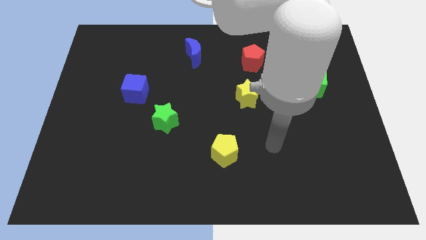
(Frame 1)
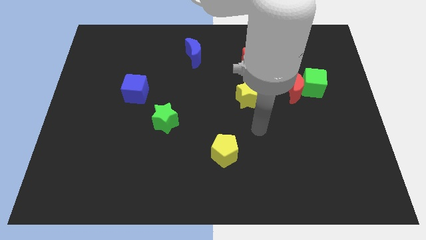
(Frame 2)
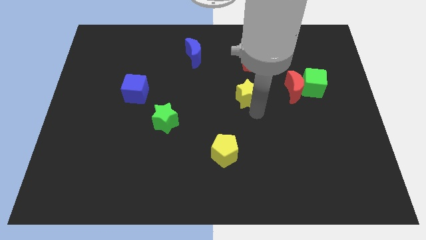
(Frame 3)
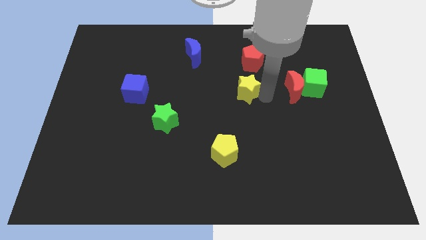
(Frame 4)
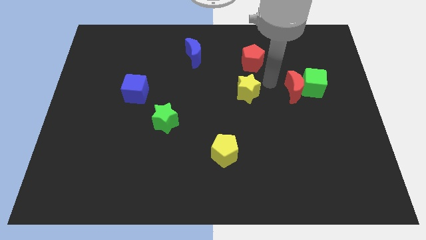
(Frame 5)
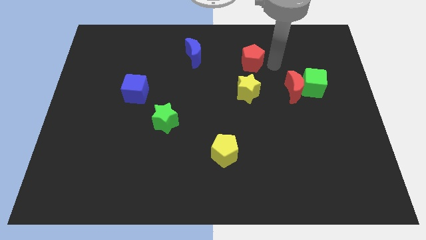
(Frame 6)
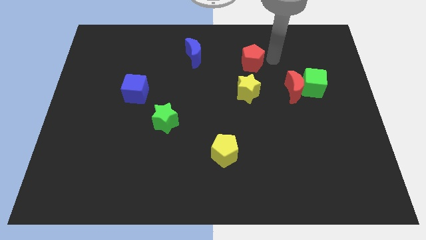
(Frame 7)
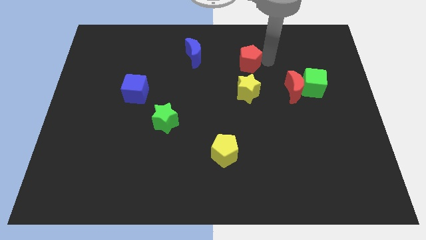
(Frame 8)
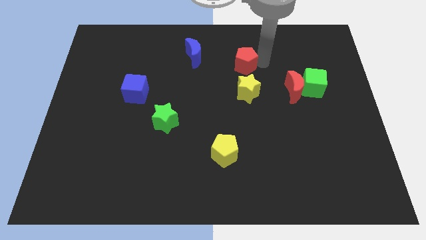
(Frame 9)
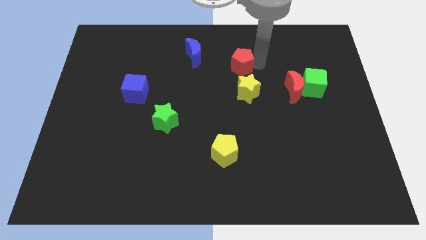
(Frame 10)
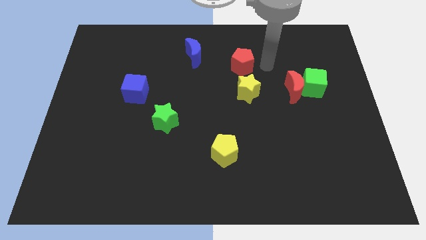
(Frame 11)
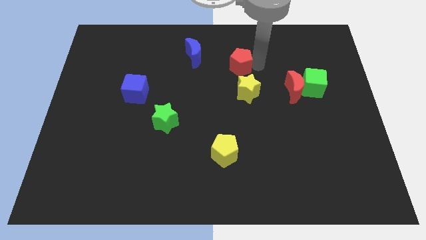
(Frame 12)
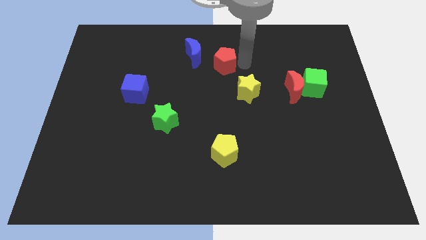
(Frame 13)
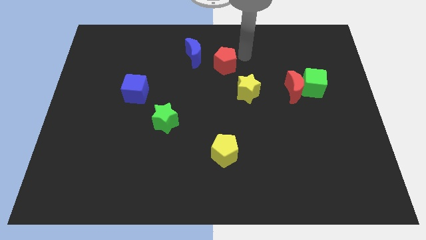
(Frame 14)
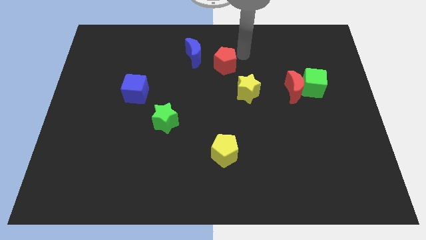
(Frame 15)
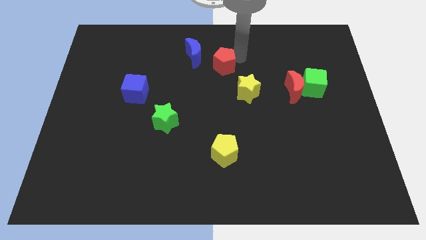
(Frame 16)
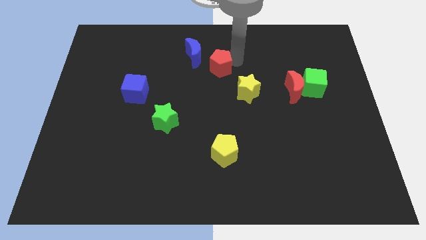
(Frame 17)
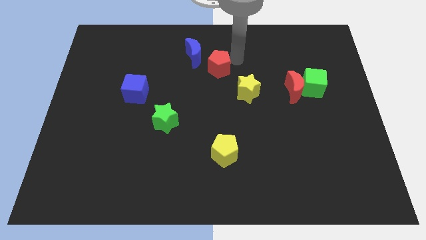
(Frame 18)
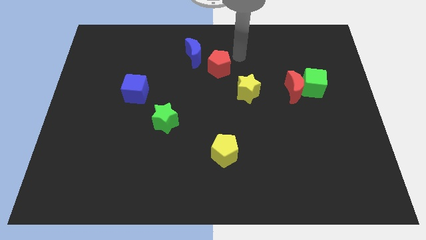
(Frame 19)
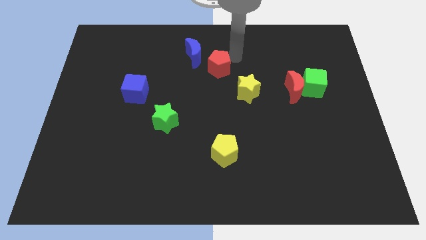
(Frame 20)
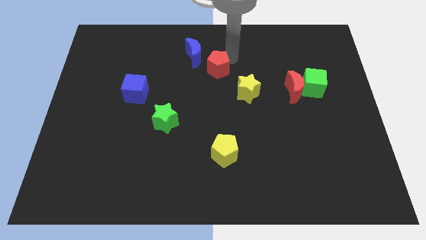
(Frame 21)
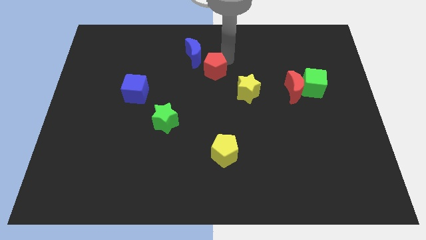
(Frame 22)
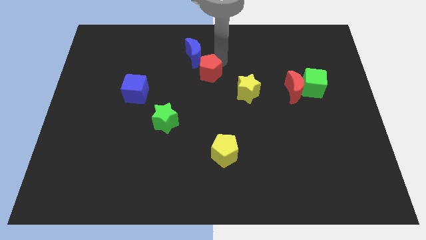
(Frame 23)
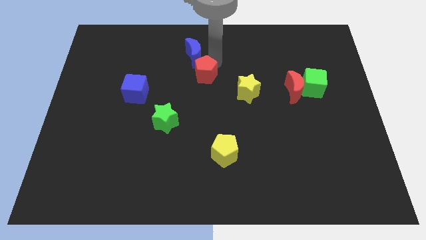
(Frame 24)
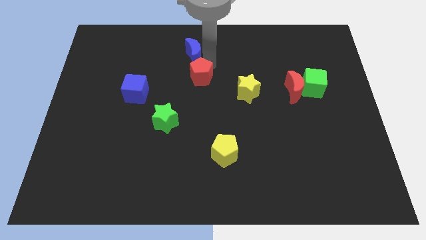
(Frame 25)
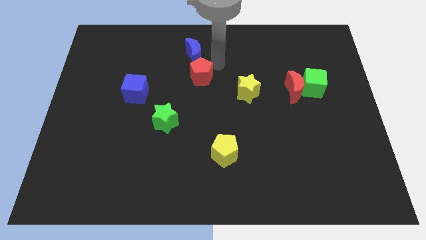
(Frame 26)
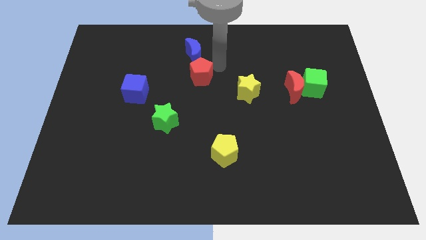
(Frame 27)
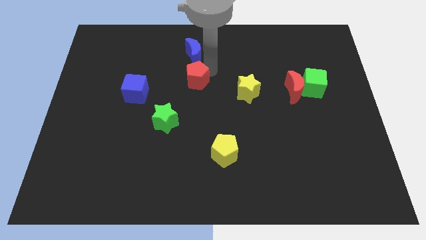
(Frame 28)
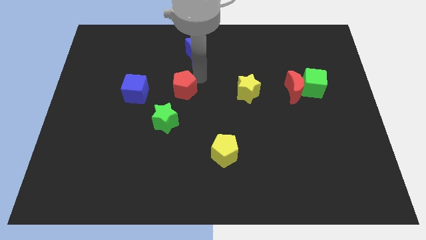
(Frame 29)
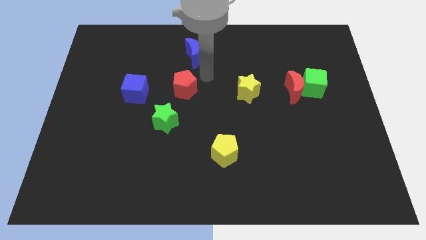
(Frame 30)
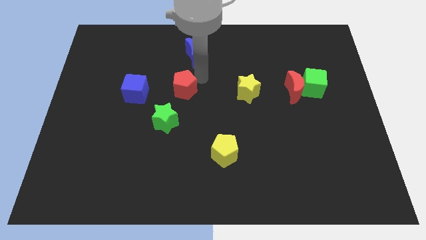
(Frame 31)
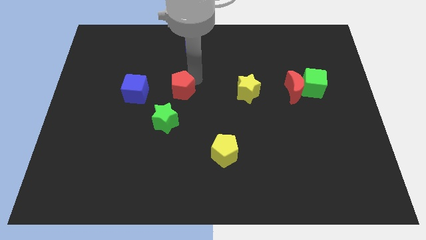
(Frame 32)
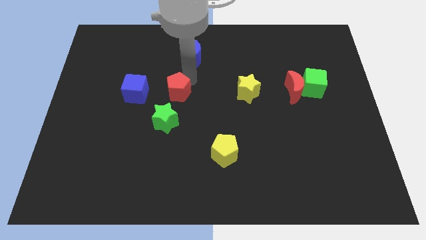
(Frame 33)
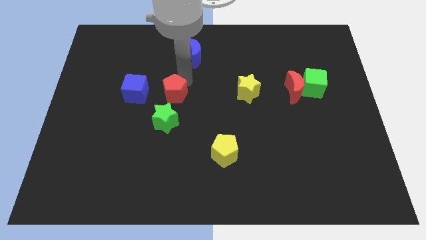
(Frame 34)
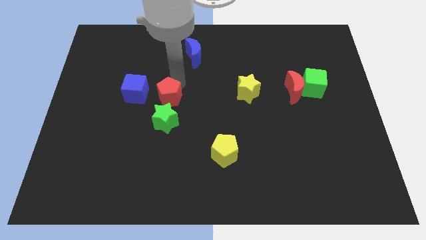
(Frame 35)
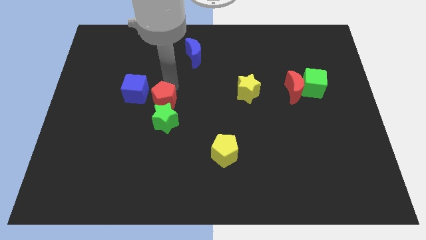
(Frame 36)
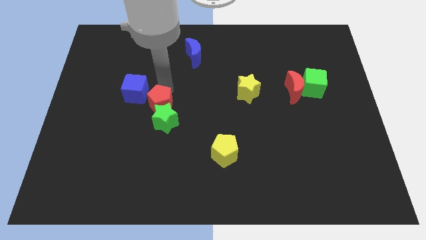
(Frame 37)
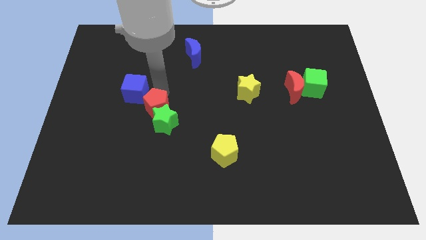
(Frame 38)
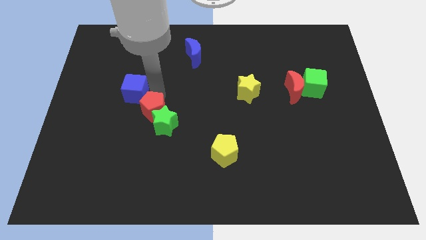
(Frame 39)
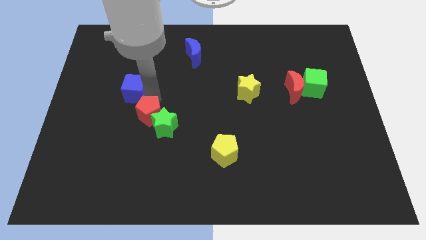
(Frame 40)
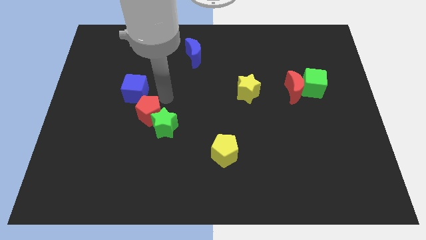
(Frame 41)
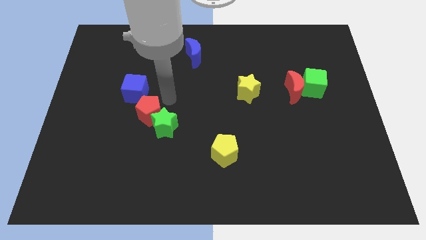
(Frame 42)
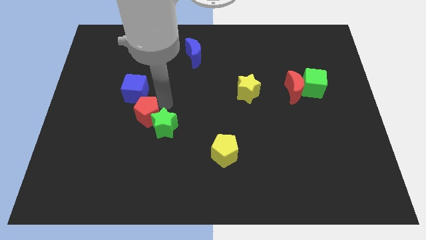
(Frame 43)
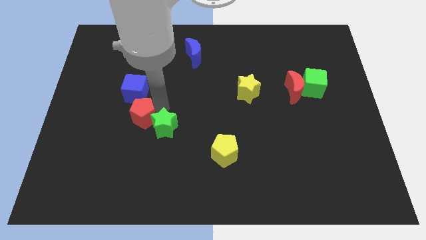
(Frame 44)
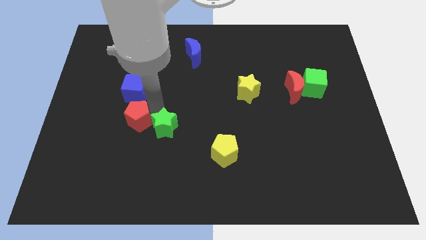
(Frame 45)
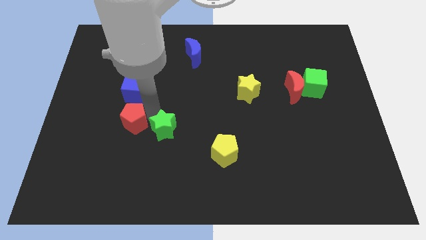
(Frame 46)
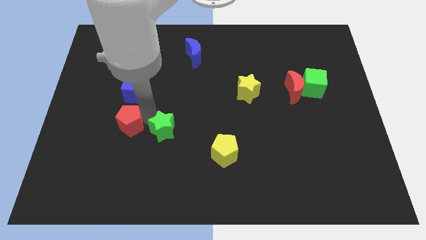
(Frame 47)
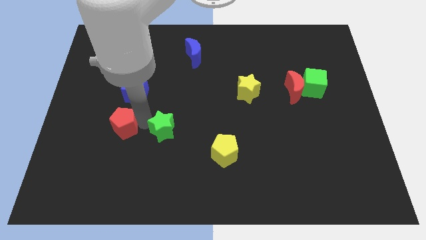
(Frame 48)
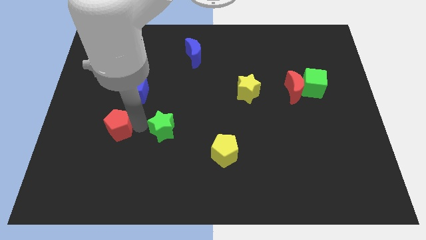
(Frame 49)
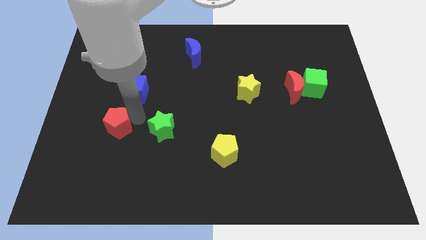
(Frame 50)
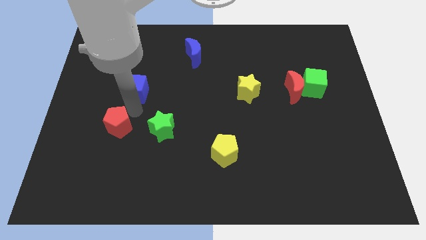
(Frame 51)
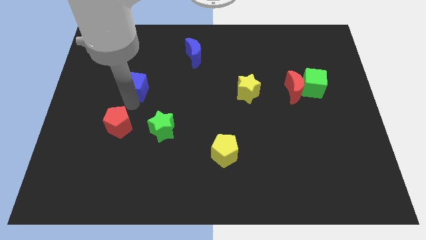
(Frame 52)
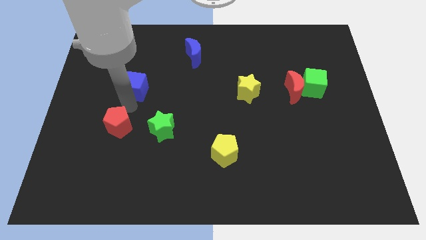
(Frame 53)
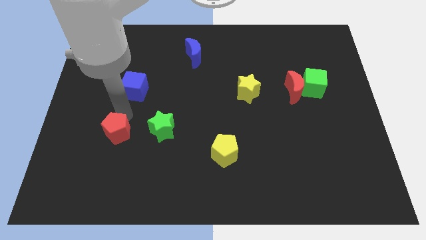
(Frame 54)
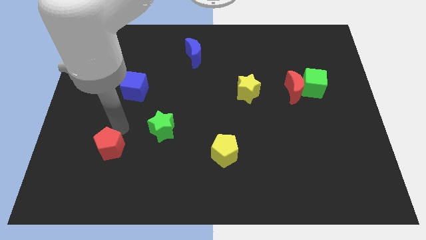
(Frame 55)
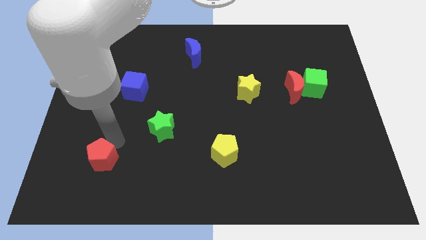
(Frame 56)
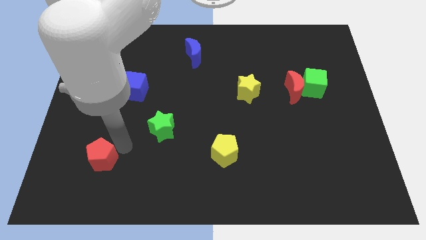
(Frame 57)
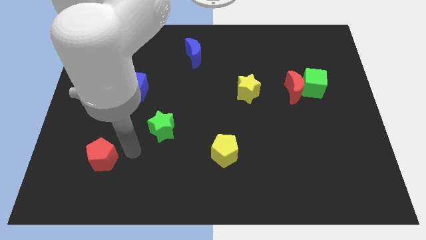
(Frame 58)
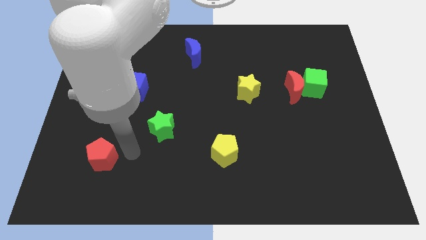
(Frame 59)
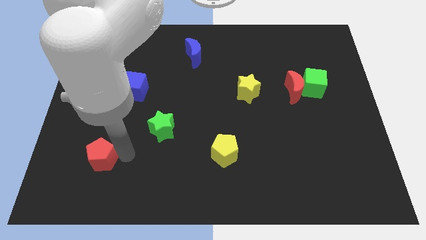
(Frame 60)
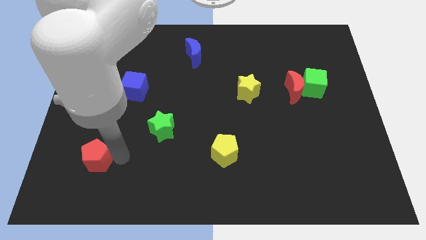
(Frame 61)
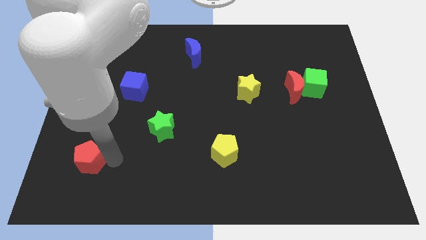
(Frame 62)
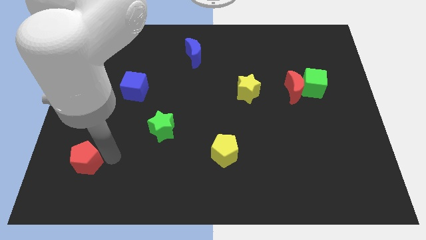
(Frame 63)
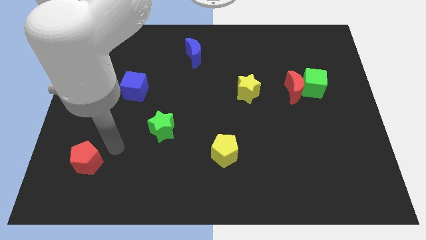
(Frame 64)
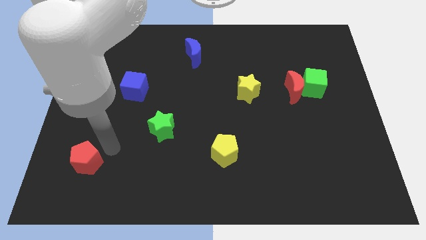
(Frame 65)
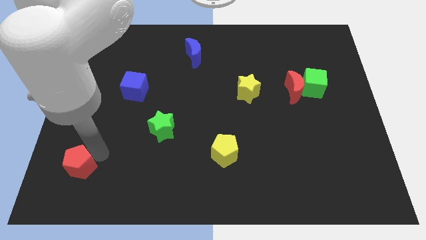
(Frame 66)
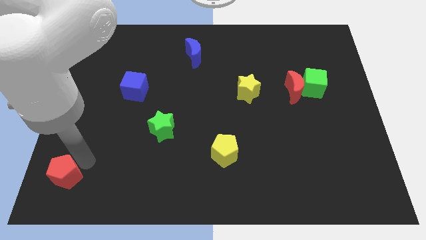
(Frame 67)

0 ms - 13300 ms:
slide the red pentagon to the lower left corner
